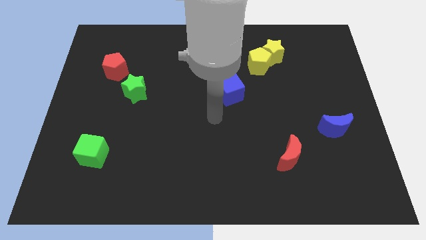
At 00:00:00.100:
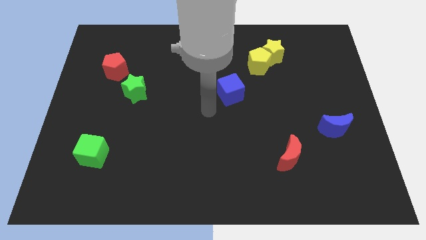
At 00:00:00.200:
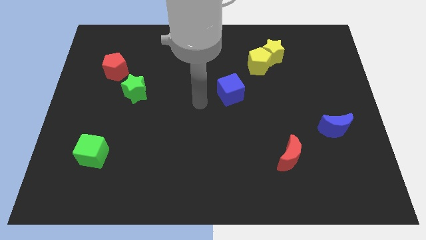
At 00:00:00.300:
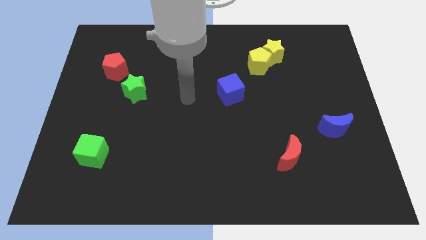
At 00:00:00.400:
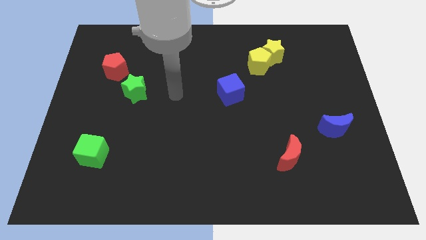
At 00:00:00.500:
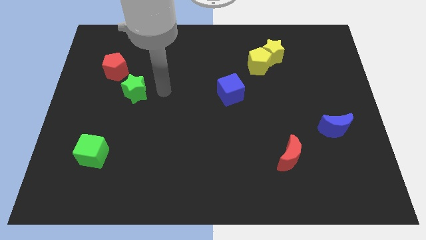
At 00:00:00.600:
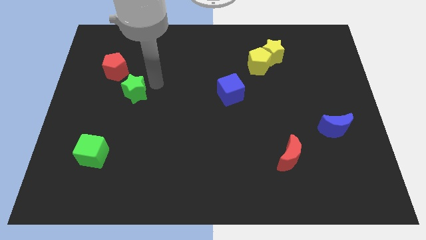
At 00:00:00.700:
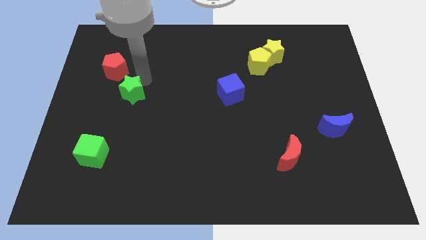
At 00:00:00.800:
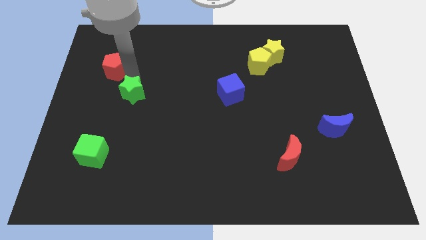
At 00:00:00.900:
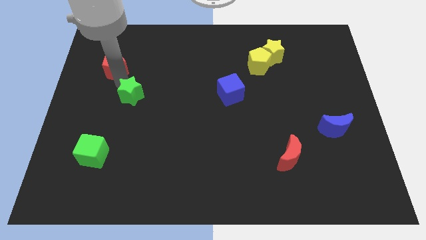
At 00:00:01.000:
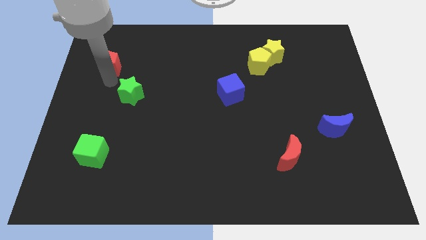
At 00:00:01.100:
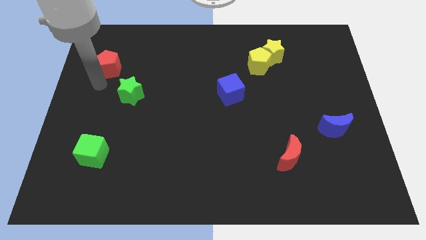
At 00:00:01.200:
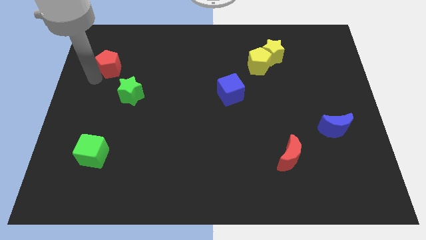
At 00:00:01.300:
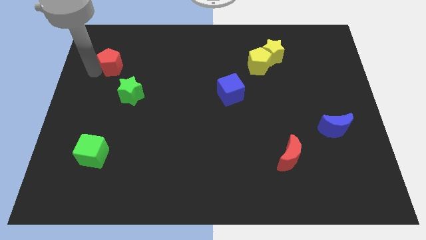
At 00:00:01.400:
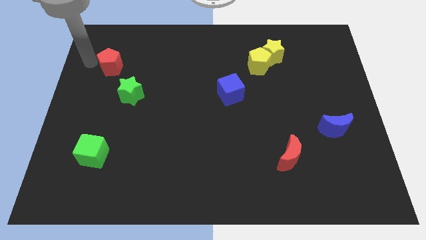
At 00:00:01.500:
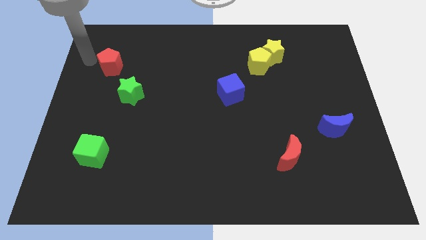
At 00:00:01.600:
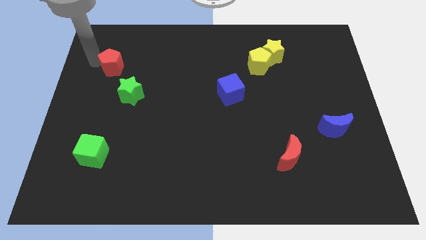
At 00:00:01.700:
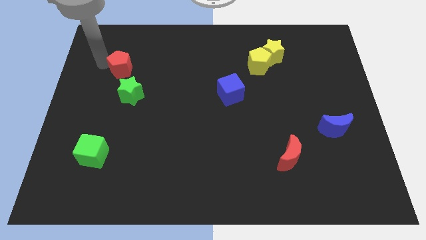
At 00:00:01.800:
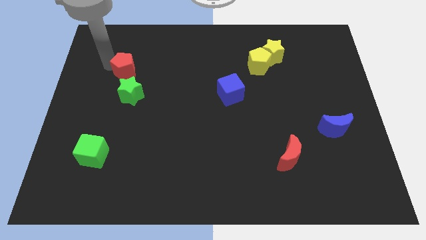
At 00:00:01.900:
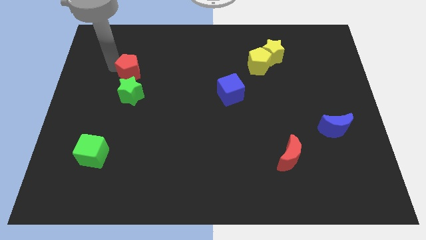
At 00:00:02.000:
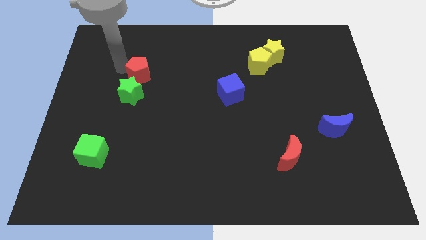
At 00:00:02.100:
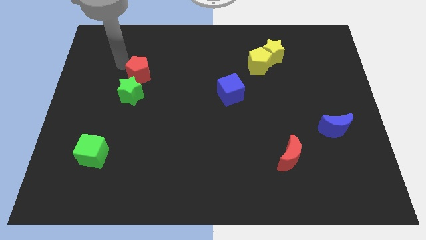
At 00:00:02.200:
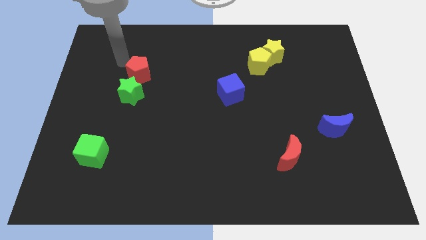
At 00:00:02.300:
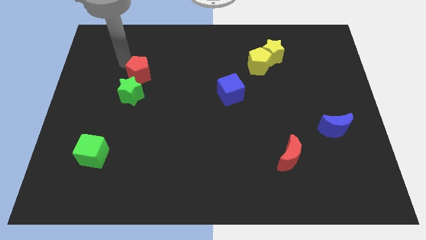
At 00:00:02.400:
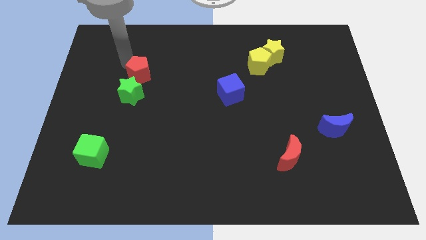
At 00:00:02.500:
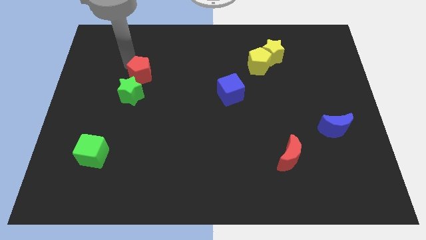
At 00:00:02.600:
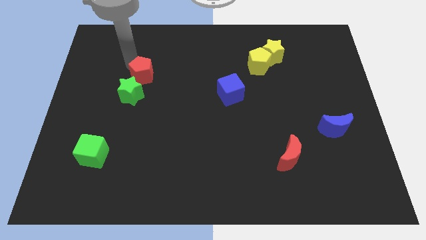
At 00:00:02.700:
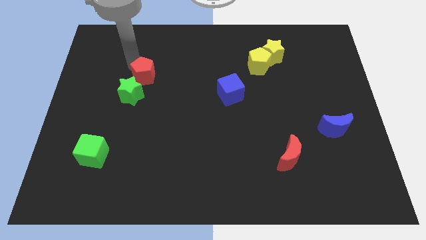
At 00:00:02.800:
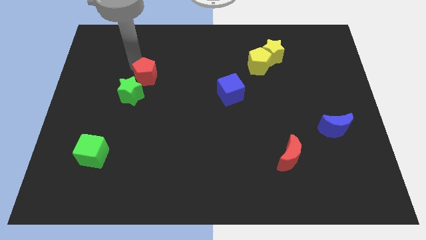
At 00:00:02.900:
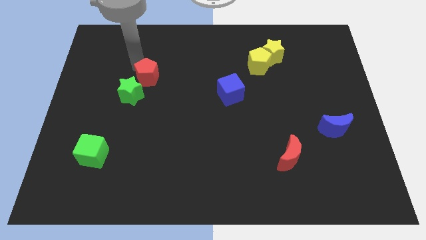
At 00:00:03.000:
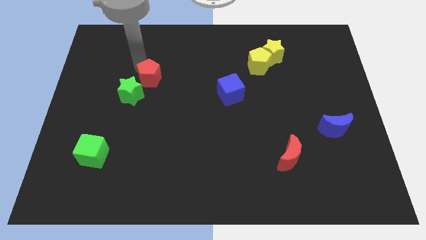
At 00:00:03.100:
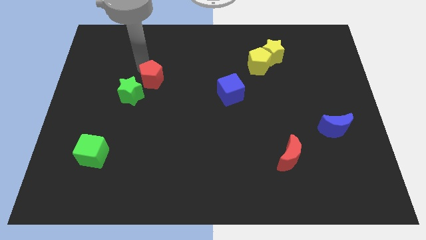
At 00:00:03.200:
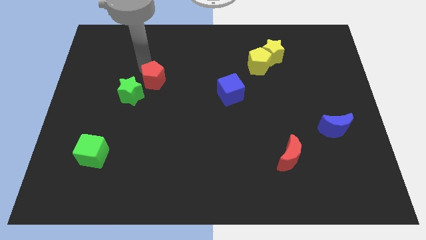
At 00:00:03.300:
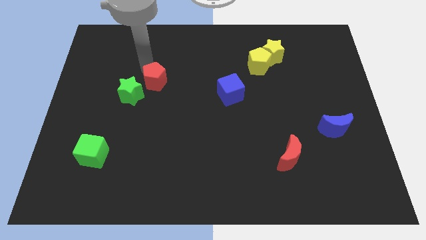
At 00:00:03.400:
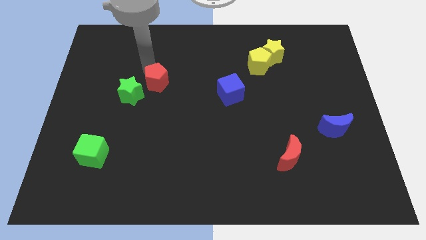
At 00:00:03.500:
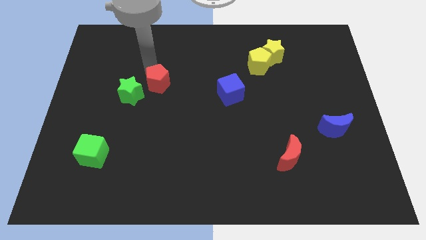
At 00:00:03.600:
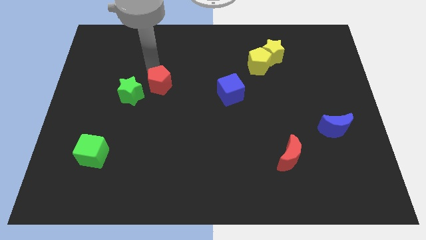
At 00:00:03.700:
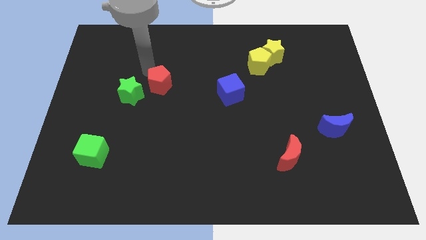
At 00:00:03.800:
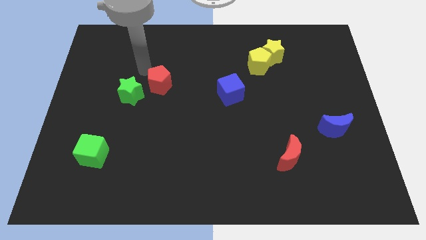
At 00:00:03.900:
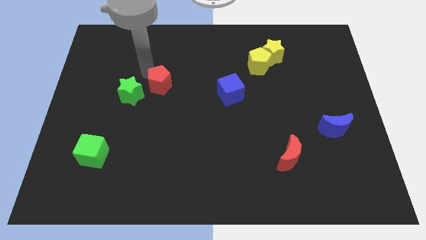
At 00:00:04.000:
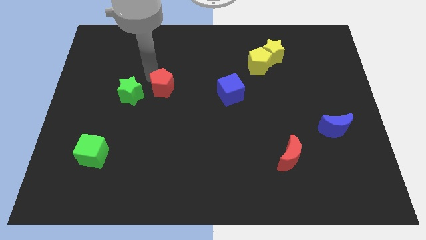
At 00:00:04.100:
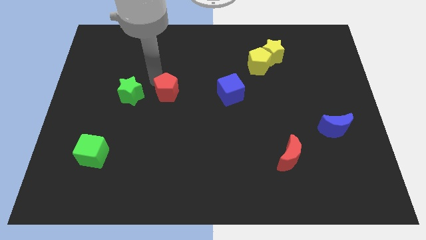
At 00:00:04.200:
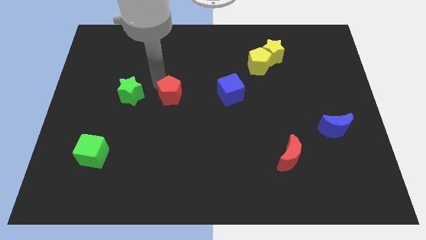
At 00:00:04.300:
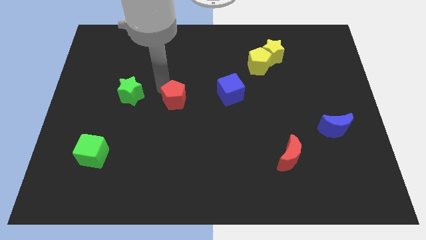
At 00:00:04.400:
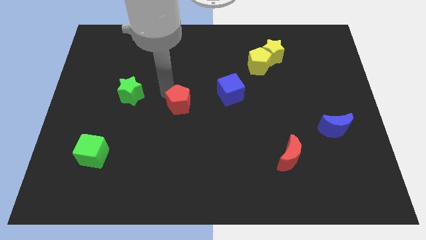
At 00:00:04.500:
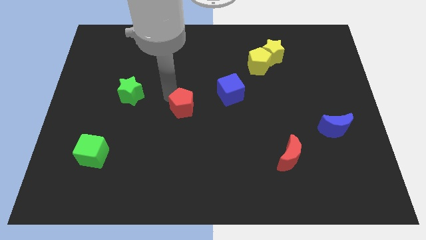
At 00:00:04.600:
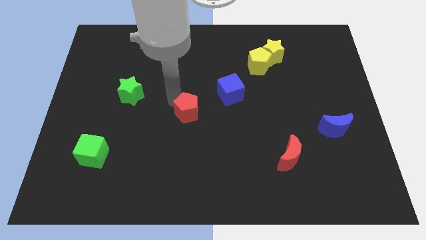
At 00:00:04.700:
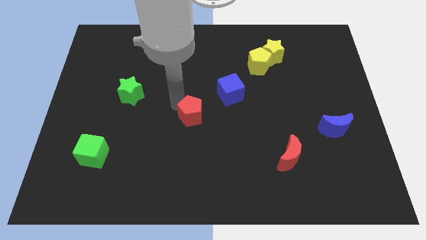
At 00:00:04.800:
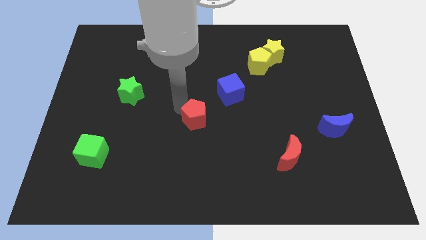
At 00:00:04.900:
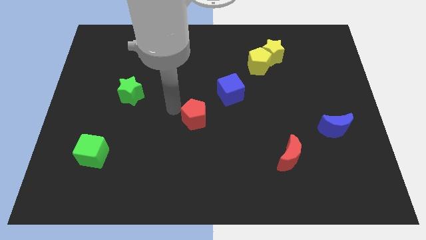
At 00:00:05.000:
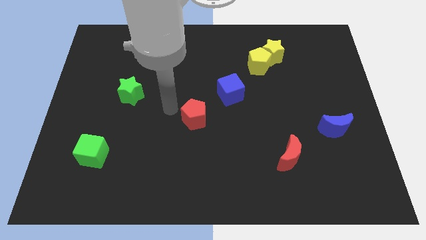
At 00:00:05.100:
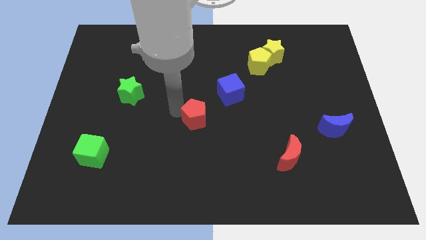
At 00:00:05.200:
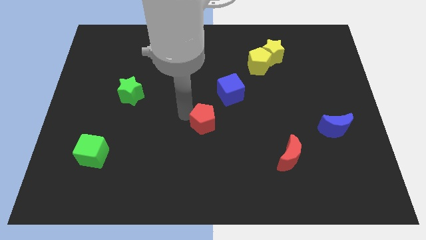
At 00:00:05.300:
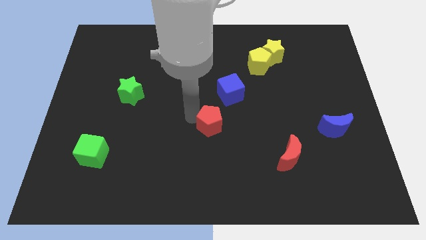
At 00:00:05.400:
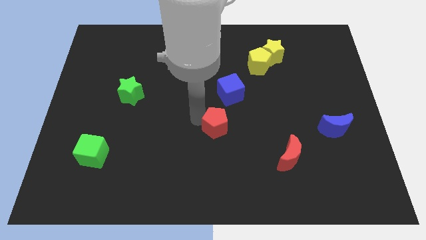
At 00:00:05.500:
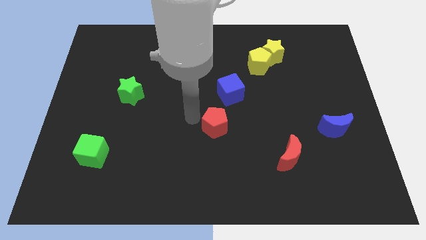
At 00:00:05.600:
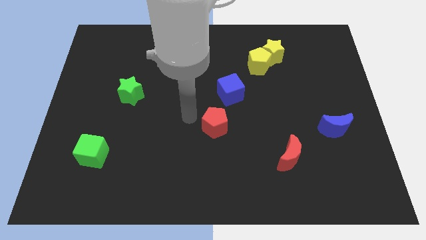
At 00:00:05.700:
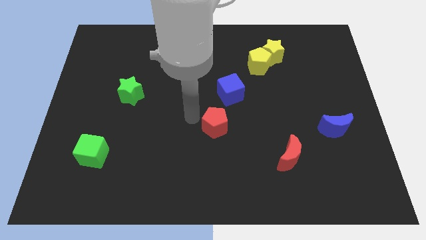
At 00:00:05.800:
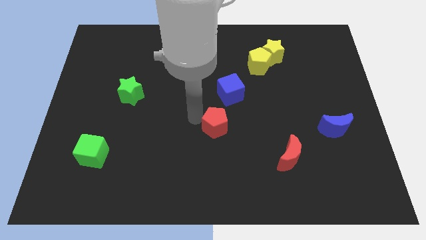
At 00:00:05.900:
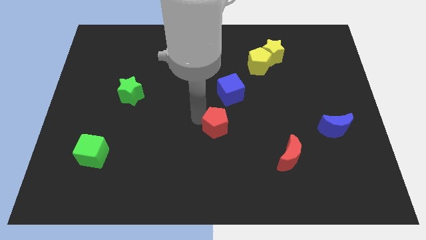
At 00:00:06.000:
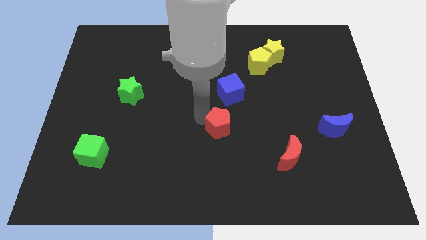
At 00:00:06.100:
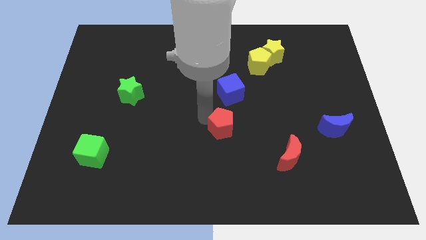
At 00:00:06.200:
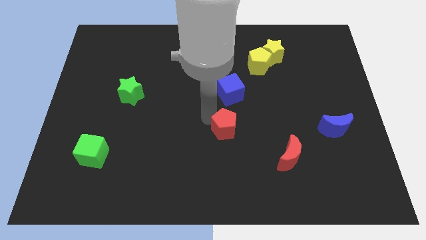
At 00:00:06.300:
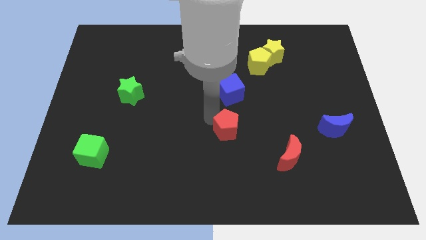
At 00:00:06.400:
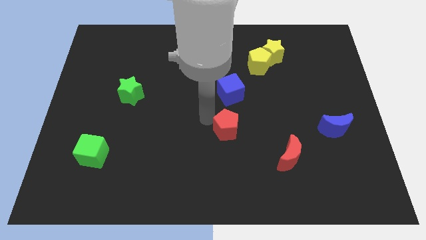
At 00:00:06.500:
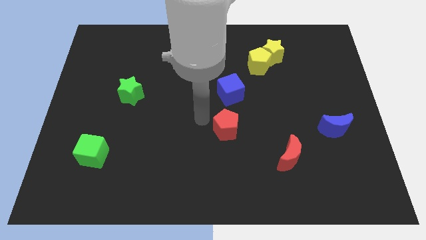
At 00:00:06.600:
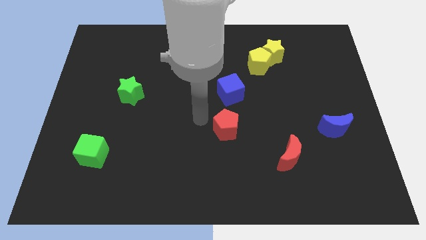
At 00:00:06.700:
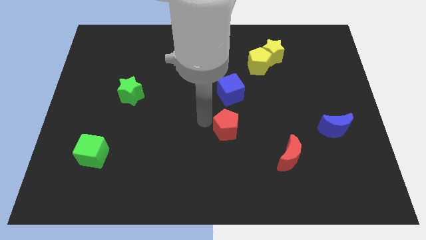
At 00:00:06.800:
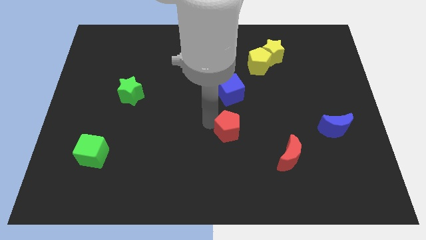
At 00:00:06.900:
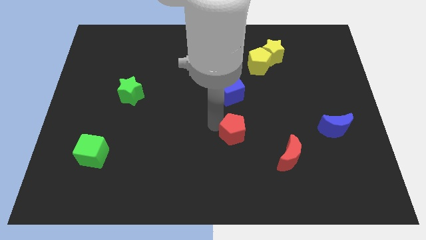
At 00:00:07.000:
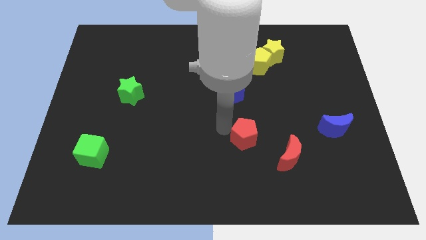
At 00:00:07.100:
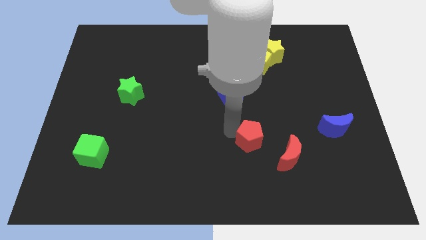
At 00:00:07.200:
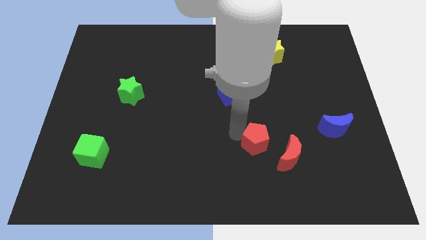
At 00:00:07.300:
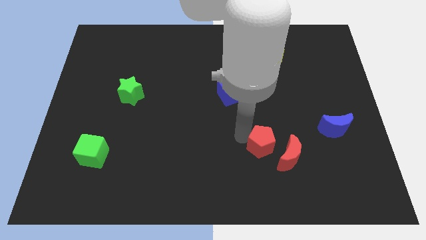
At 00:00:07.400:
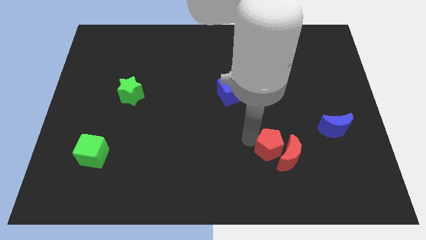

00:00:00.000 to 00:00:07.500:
put the red pentagon next to the red moon
